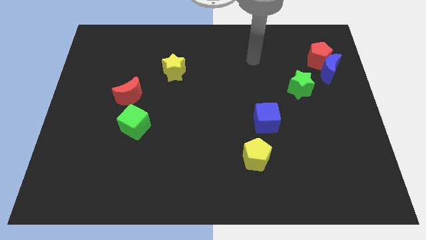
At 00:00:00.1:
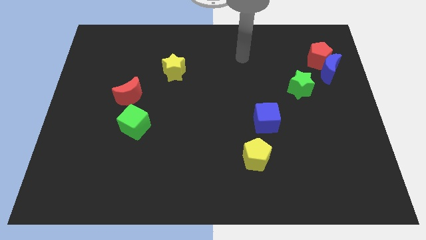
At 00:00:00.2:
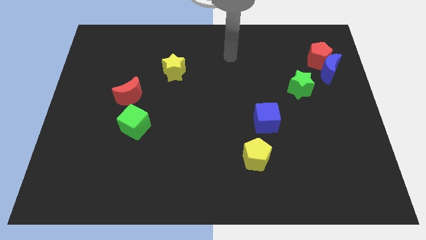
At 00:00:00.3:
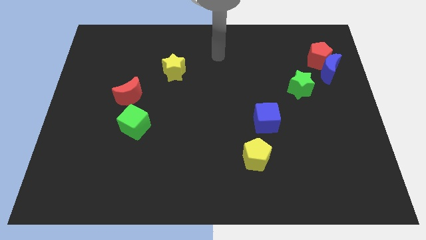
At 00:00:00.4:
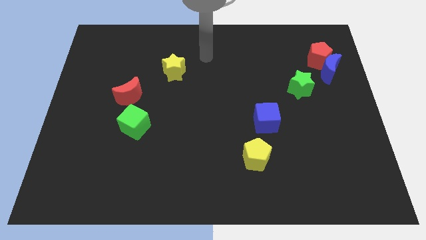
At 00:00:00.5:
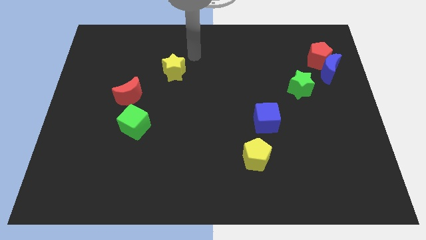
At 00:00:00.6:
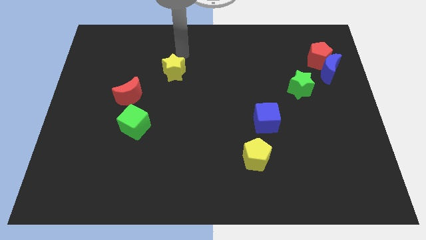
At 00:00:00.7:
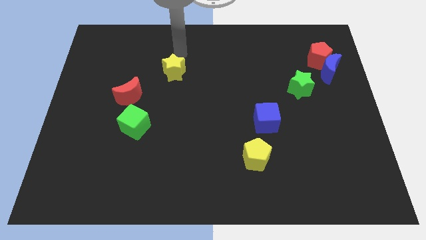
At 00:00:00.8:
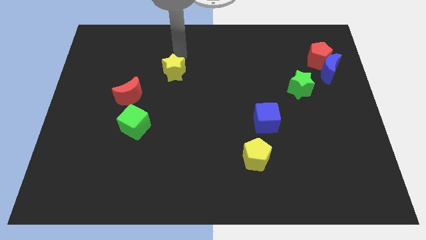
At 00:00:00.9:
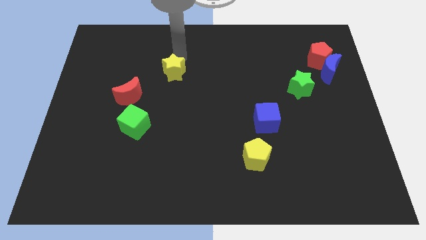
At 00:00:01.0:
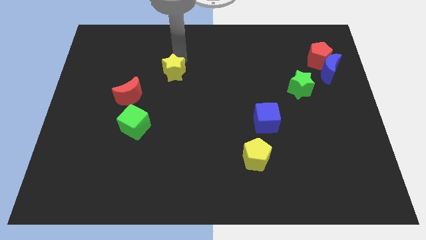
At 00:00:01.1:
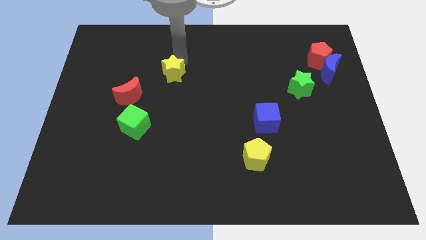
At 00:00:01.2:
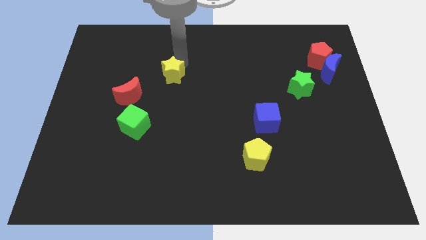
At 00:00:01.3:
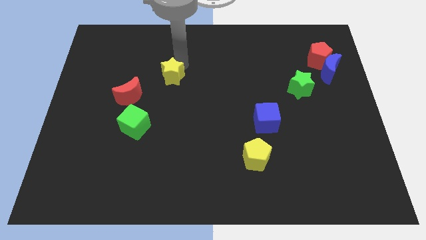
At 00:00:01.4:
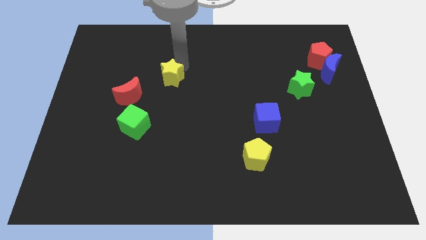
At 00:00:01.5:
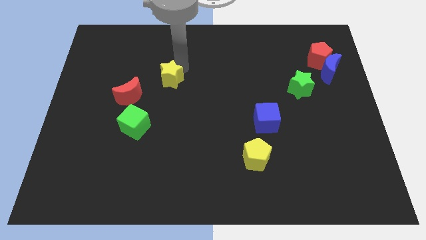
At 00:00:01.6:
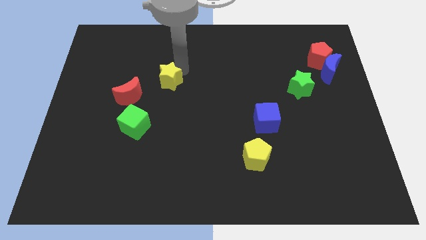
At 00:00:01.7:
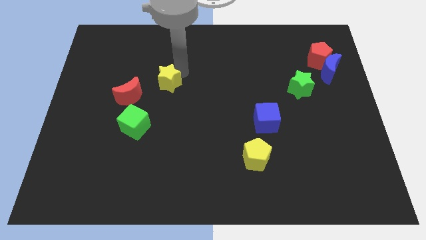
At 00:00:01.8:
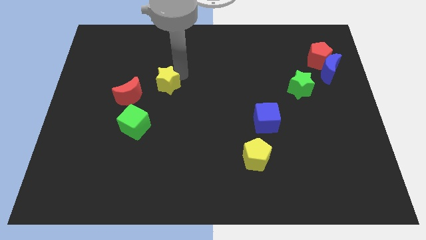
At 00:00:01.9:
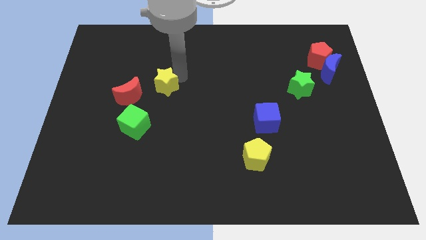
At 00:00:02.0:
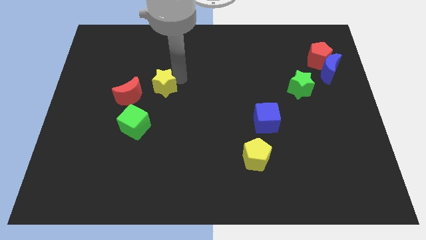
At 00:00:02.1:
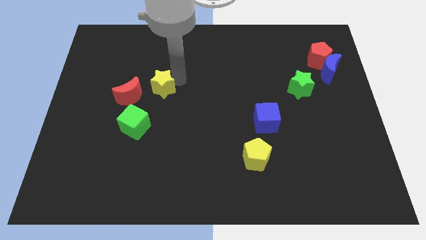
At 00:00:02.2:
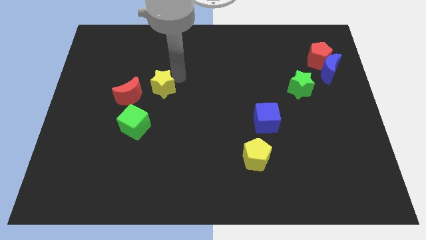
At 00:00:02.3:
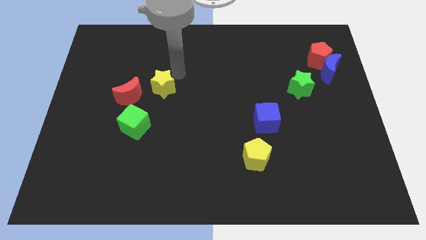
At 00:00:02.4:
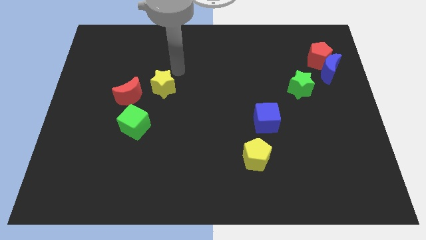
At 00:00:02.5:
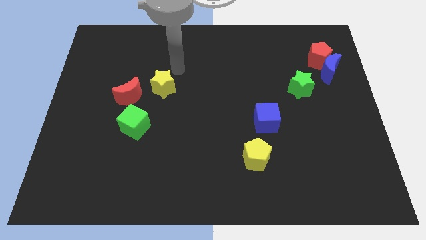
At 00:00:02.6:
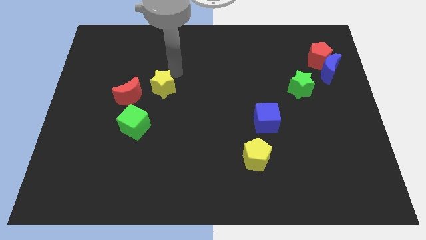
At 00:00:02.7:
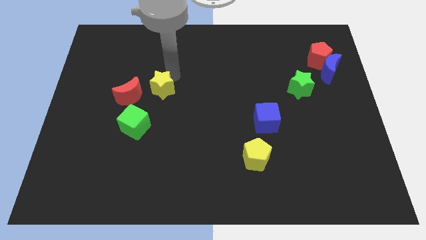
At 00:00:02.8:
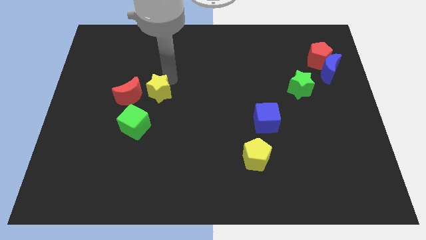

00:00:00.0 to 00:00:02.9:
move the yellow star downwards and then left slightly

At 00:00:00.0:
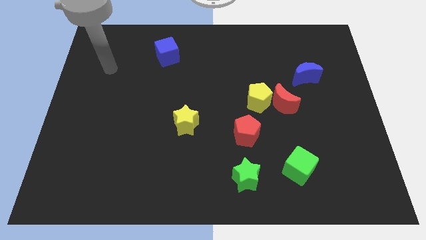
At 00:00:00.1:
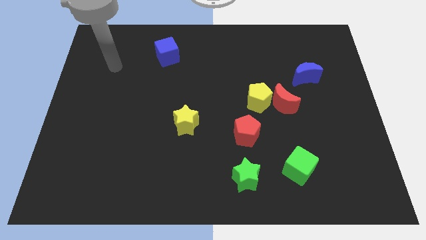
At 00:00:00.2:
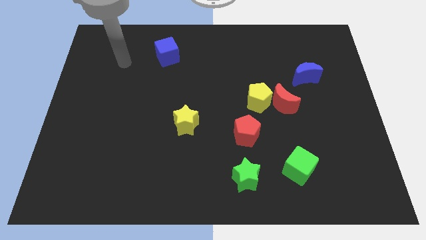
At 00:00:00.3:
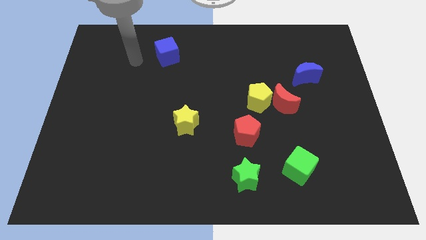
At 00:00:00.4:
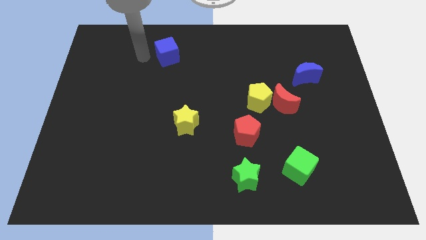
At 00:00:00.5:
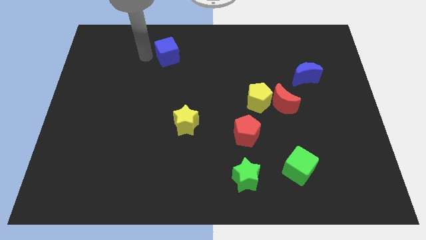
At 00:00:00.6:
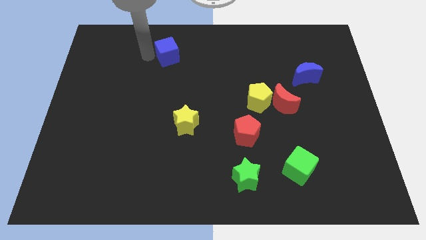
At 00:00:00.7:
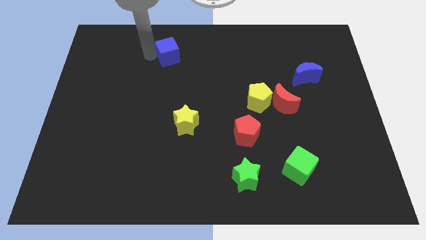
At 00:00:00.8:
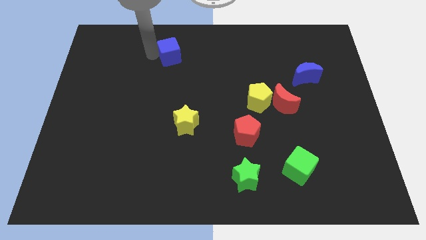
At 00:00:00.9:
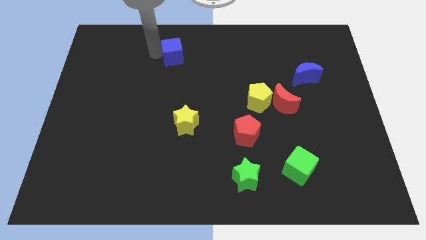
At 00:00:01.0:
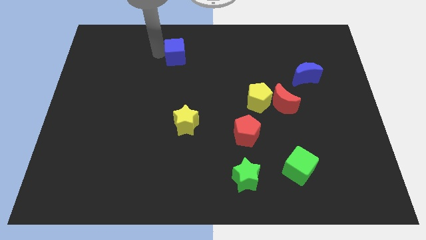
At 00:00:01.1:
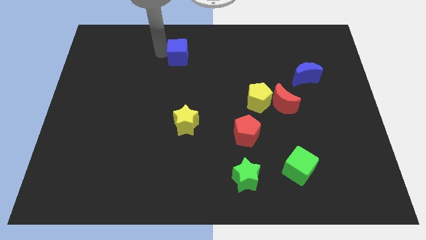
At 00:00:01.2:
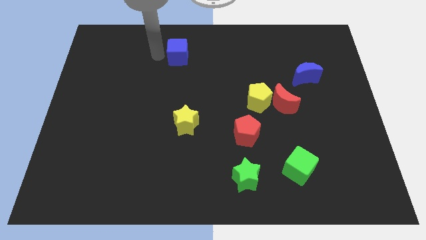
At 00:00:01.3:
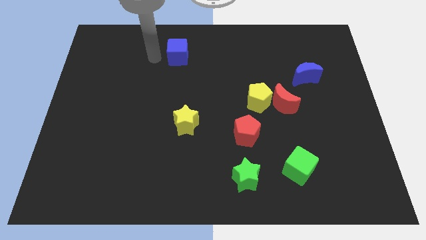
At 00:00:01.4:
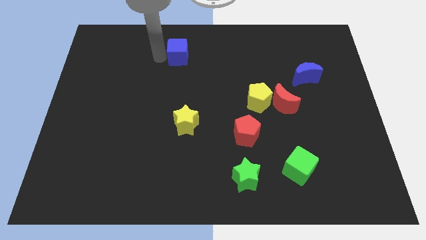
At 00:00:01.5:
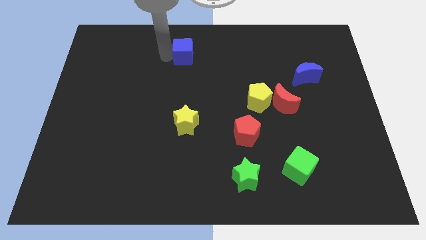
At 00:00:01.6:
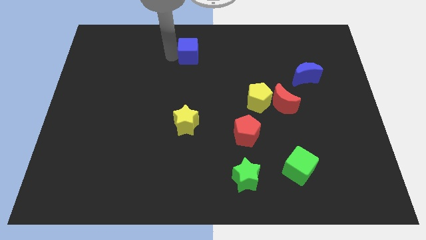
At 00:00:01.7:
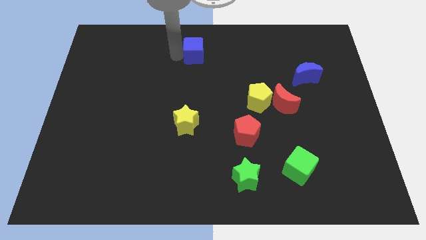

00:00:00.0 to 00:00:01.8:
move the blue cube right a little

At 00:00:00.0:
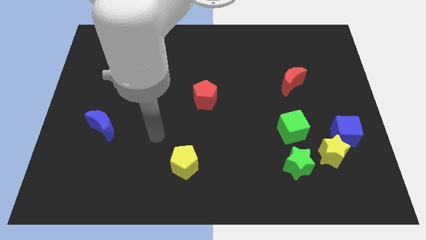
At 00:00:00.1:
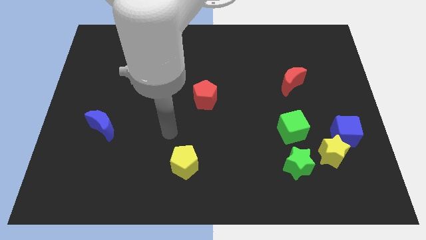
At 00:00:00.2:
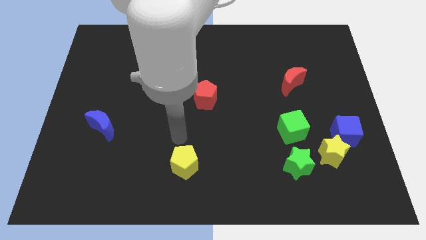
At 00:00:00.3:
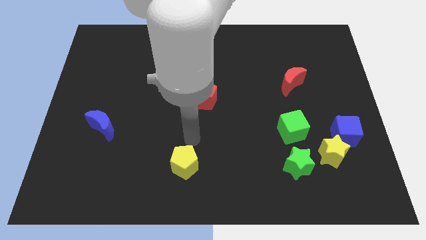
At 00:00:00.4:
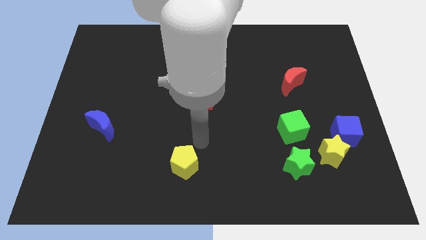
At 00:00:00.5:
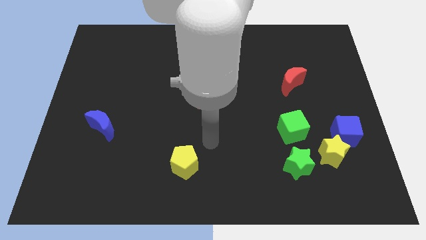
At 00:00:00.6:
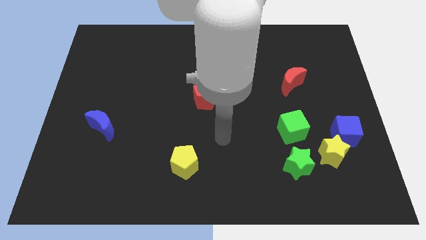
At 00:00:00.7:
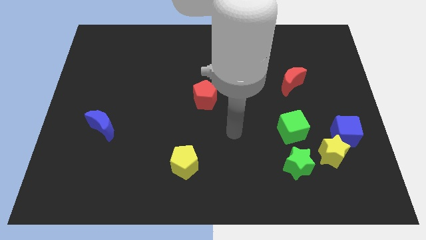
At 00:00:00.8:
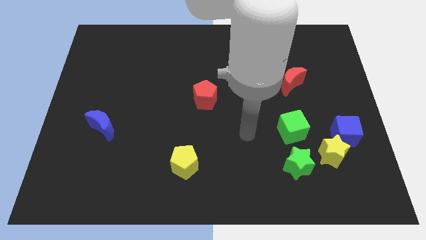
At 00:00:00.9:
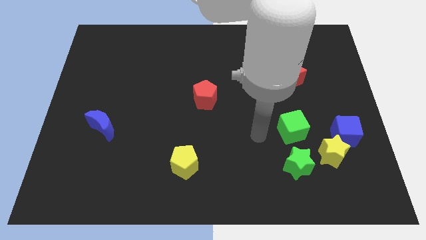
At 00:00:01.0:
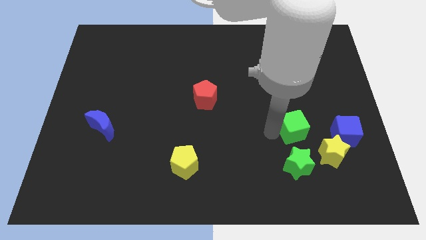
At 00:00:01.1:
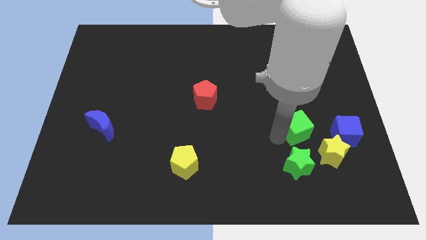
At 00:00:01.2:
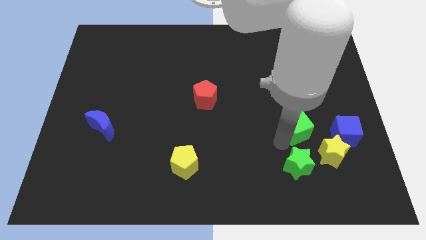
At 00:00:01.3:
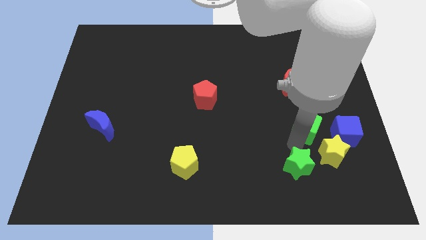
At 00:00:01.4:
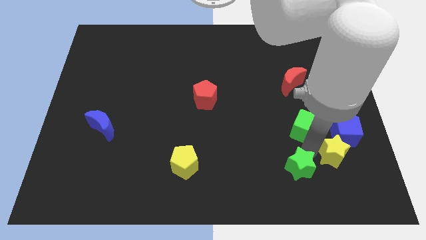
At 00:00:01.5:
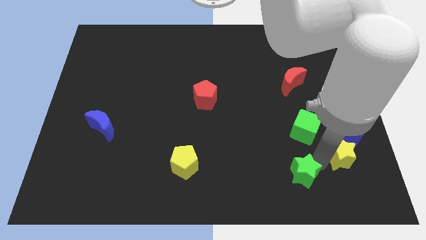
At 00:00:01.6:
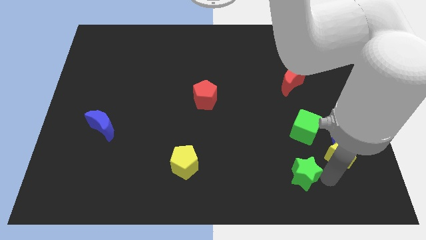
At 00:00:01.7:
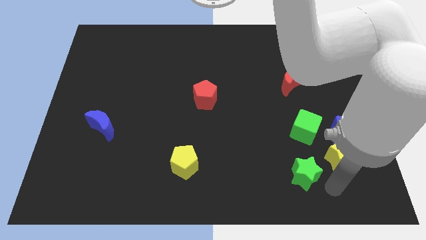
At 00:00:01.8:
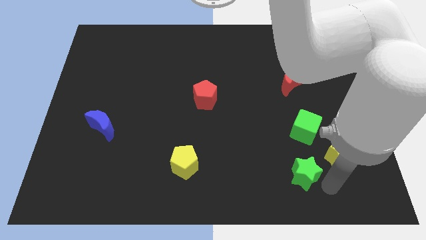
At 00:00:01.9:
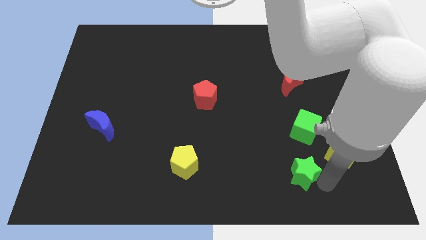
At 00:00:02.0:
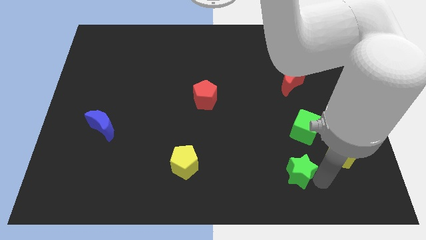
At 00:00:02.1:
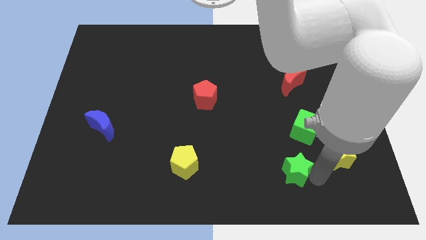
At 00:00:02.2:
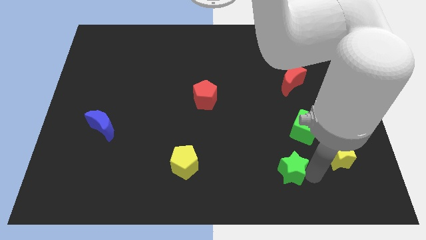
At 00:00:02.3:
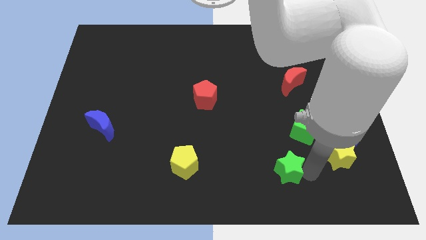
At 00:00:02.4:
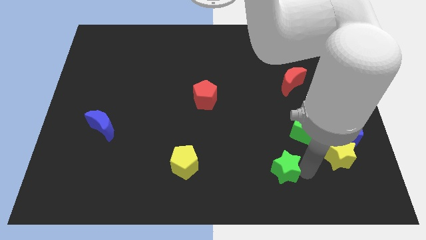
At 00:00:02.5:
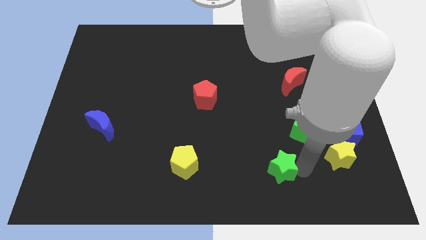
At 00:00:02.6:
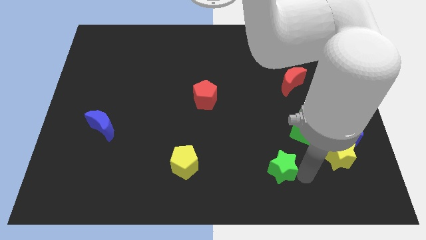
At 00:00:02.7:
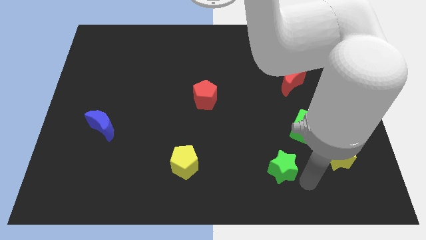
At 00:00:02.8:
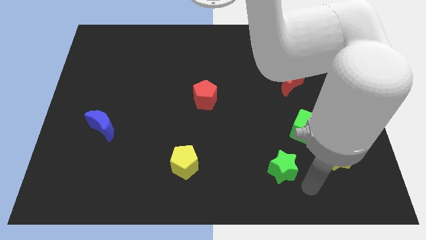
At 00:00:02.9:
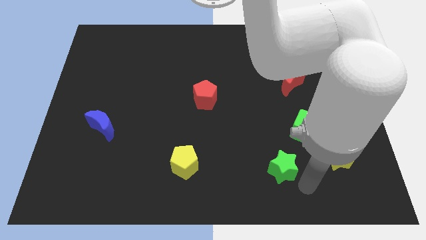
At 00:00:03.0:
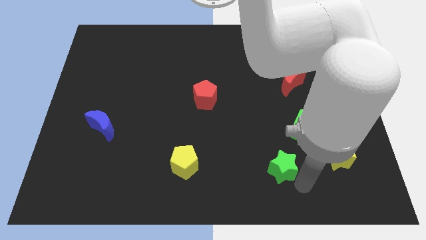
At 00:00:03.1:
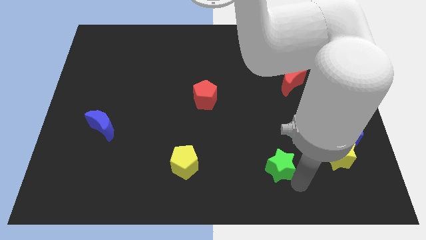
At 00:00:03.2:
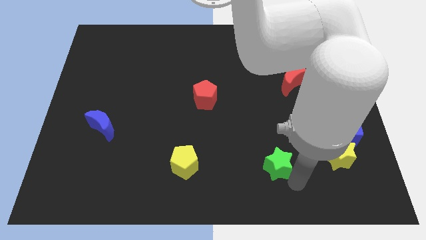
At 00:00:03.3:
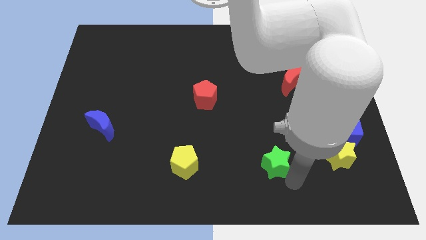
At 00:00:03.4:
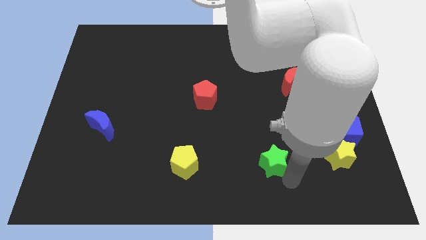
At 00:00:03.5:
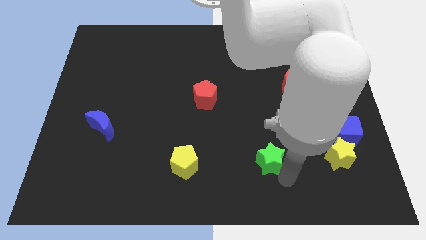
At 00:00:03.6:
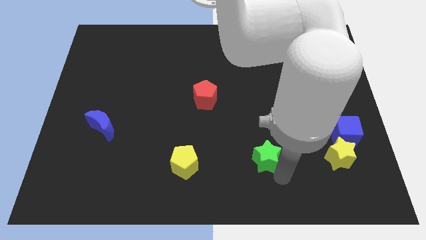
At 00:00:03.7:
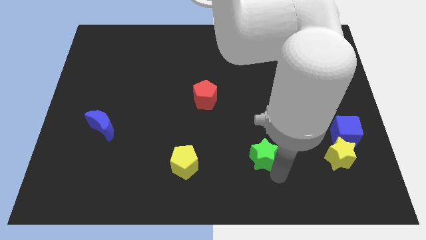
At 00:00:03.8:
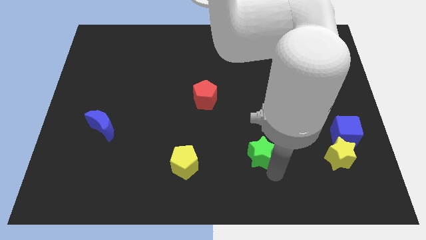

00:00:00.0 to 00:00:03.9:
slightly slide the green star up and left
